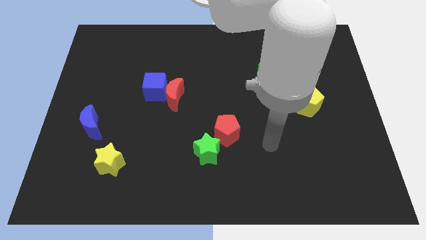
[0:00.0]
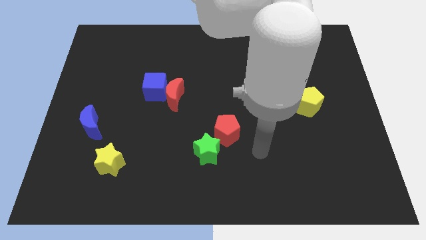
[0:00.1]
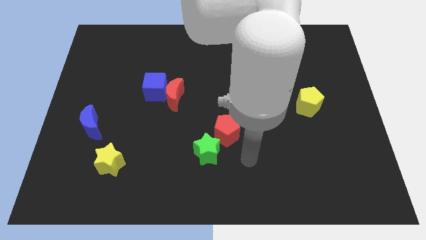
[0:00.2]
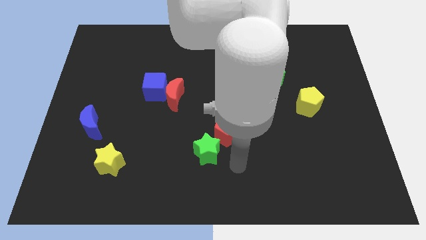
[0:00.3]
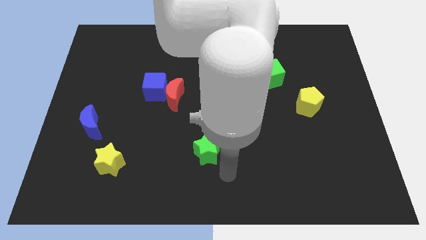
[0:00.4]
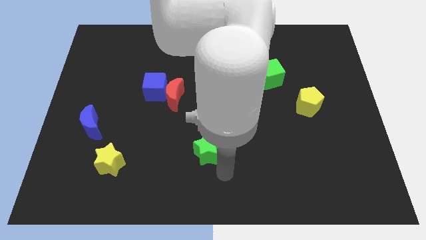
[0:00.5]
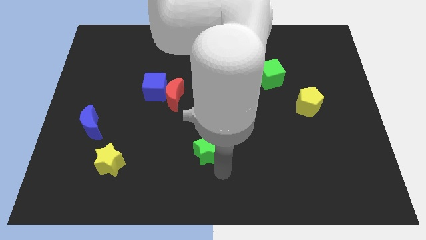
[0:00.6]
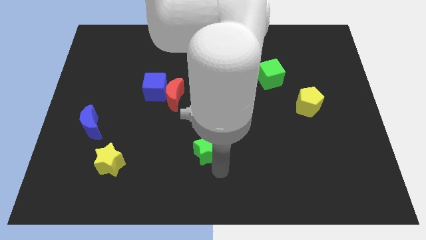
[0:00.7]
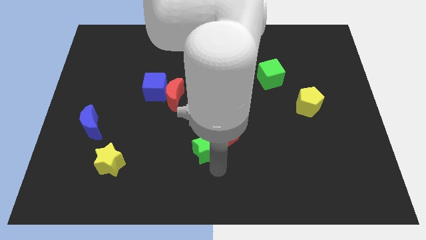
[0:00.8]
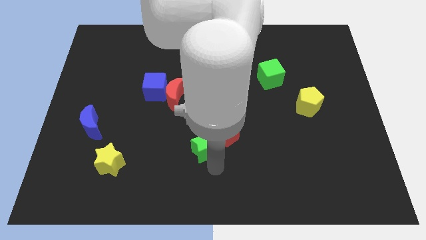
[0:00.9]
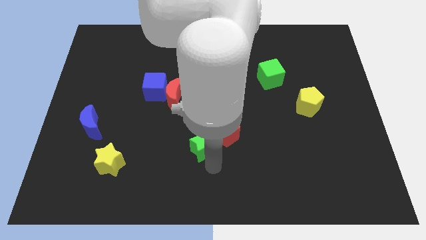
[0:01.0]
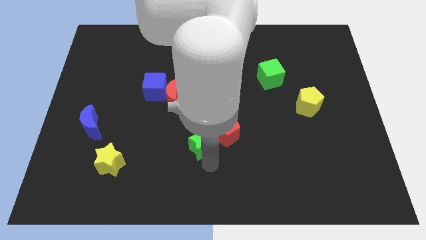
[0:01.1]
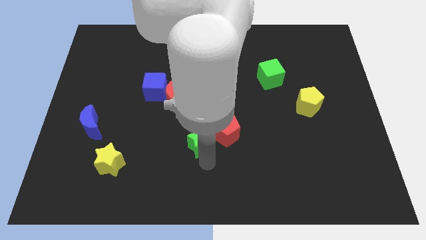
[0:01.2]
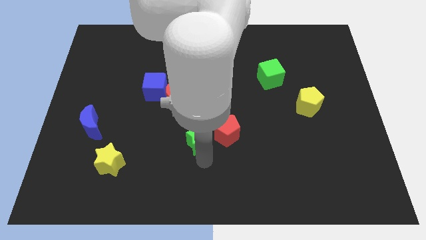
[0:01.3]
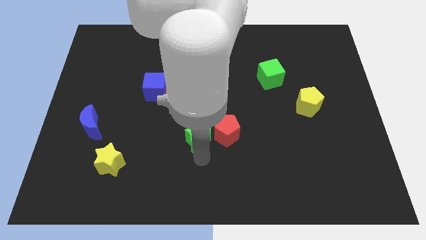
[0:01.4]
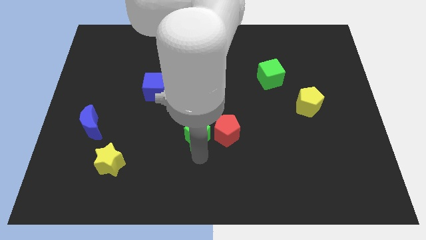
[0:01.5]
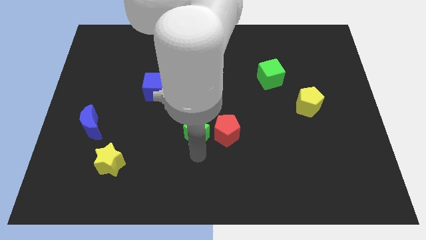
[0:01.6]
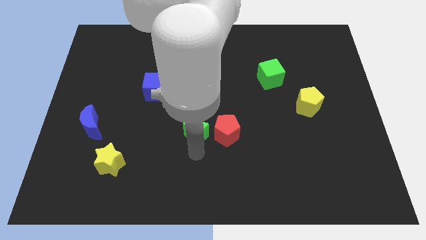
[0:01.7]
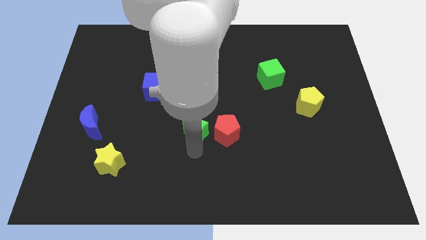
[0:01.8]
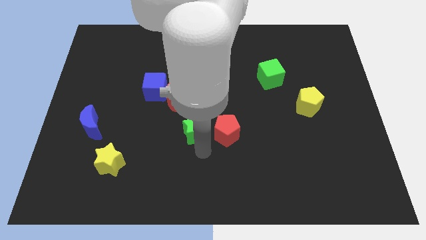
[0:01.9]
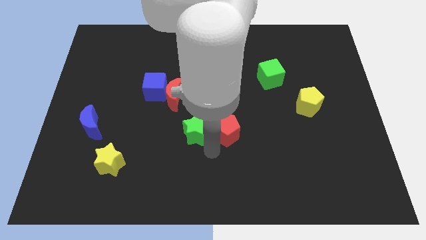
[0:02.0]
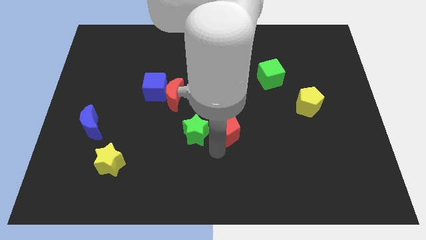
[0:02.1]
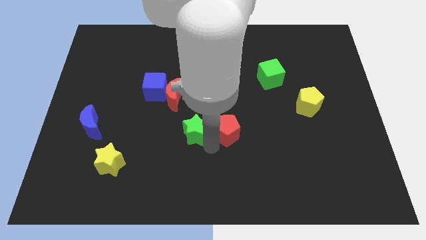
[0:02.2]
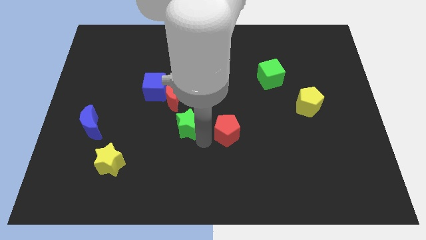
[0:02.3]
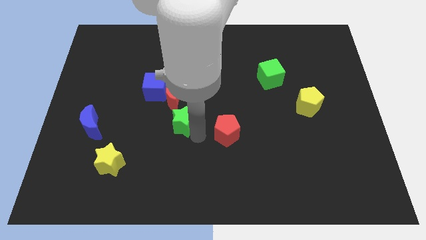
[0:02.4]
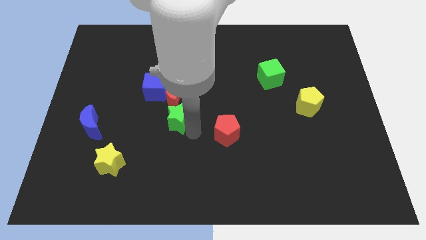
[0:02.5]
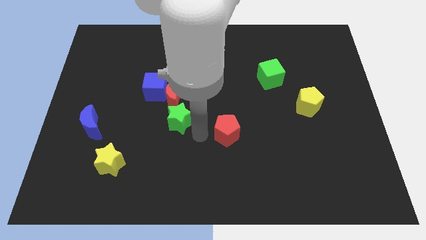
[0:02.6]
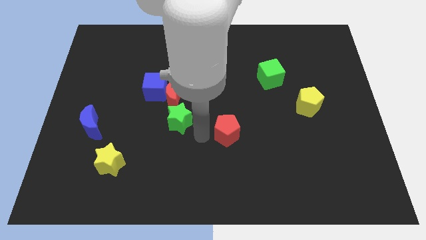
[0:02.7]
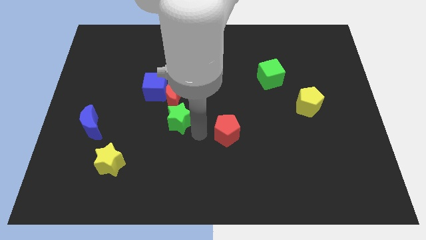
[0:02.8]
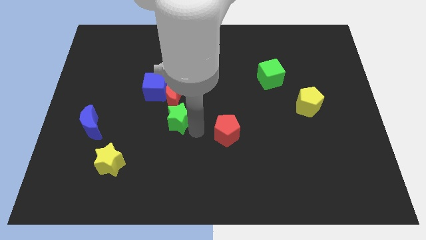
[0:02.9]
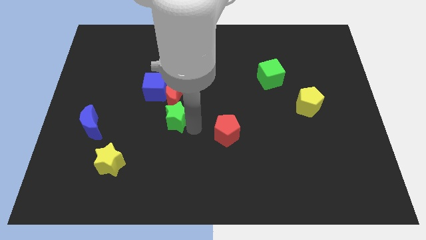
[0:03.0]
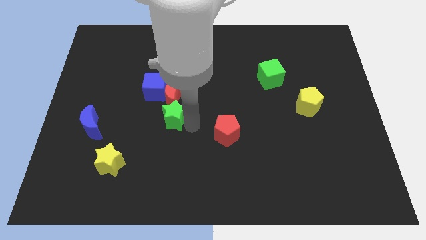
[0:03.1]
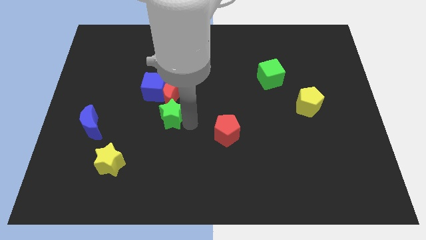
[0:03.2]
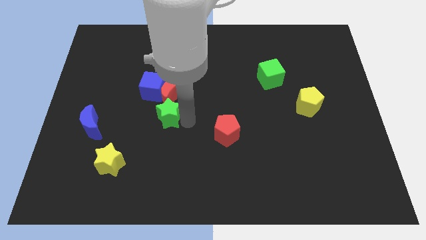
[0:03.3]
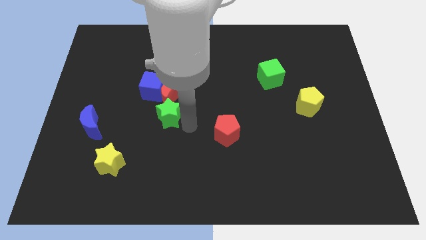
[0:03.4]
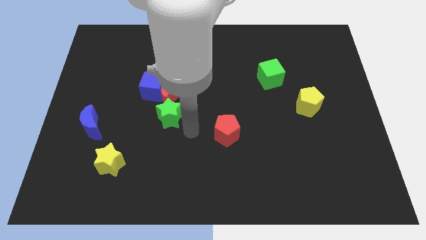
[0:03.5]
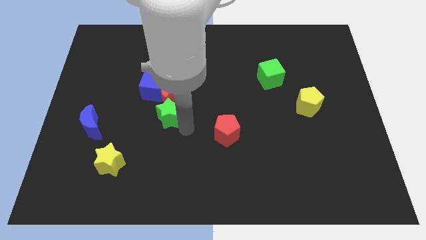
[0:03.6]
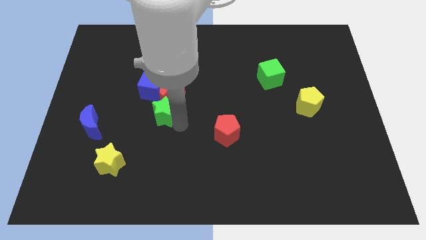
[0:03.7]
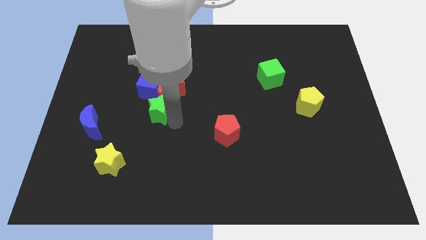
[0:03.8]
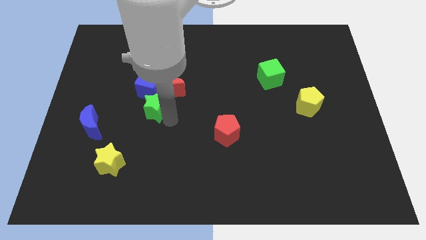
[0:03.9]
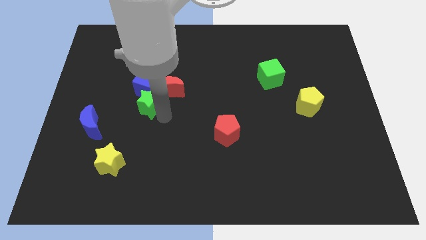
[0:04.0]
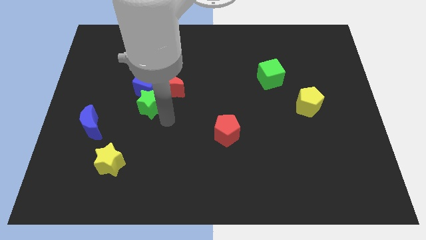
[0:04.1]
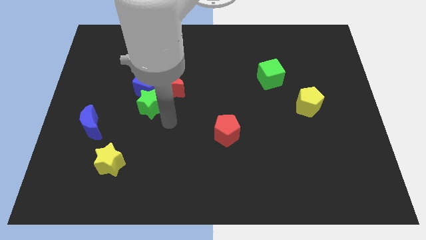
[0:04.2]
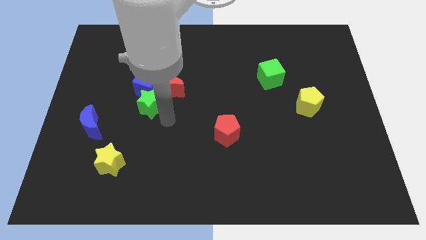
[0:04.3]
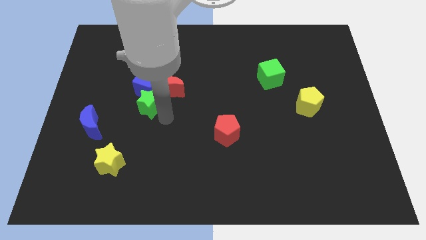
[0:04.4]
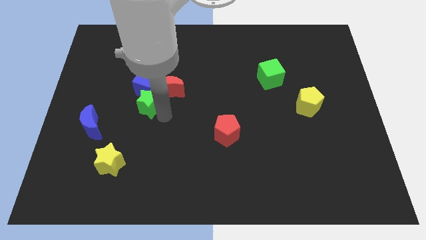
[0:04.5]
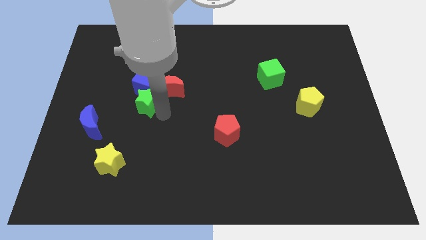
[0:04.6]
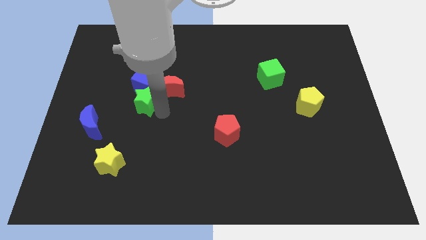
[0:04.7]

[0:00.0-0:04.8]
slide the green star diagonally upwards and to the left

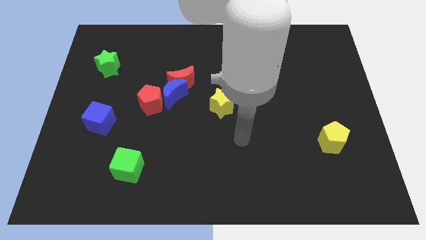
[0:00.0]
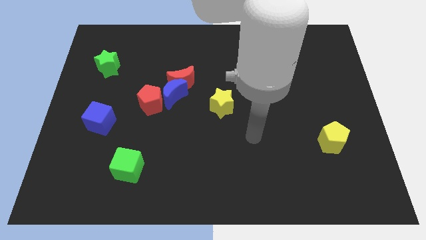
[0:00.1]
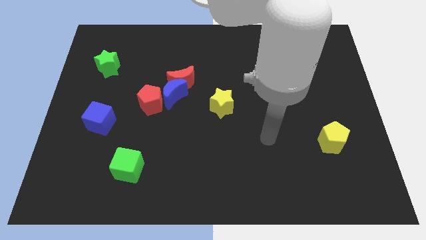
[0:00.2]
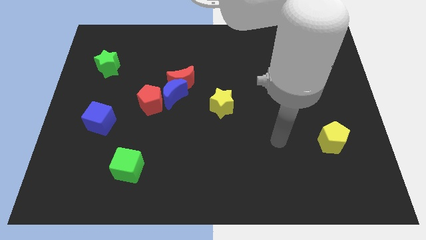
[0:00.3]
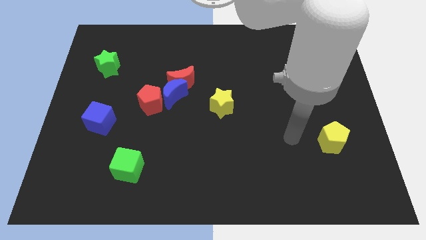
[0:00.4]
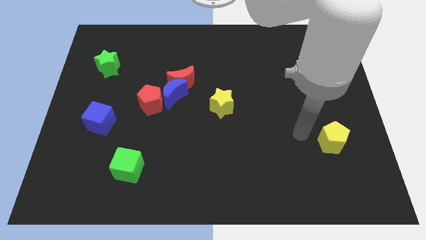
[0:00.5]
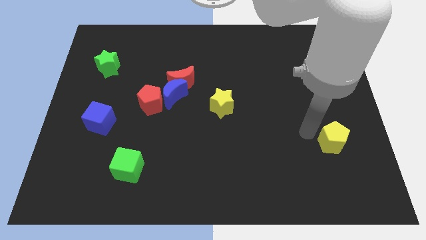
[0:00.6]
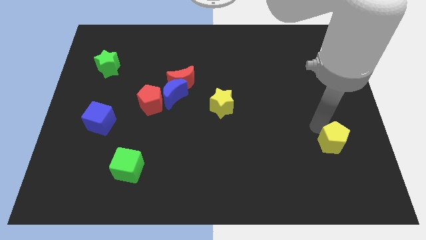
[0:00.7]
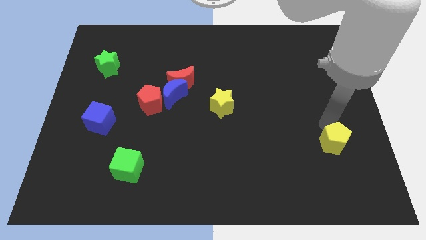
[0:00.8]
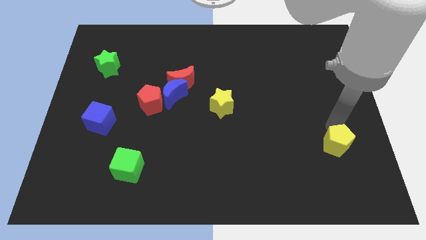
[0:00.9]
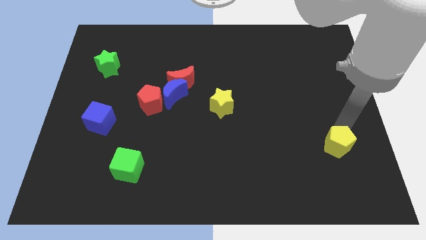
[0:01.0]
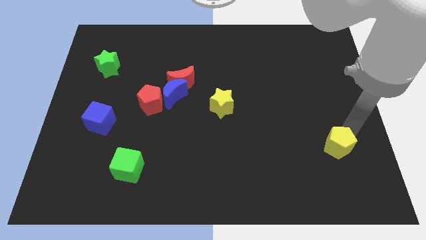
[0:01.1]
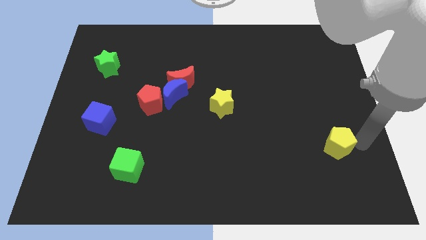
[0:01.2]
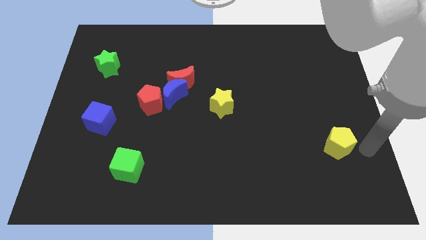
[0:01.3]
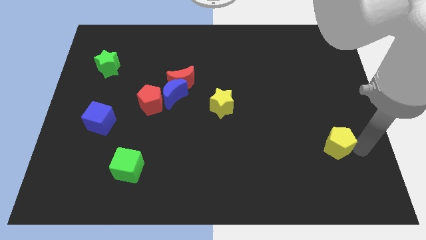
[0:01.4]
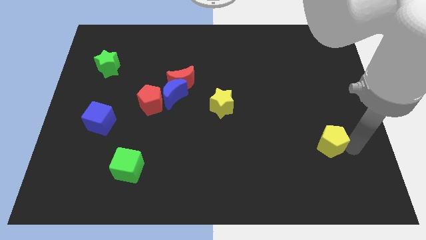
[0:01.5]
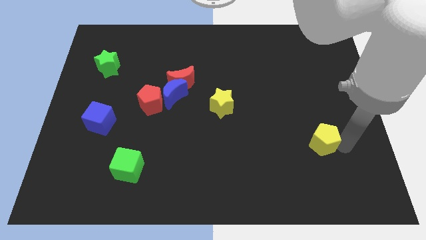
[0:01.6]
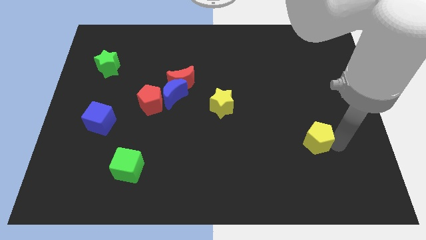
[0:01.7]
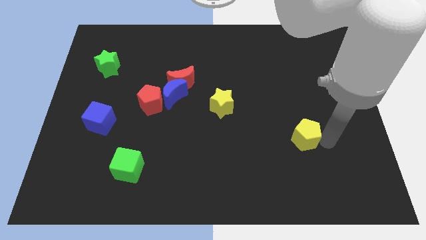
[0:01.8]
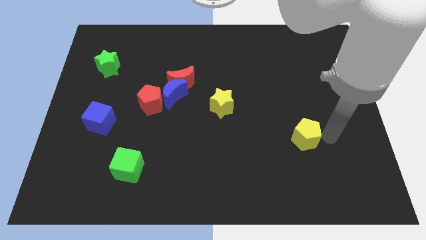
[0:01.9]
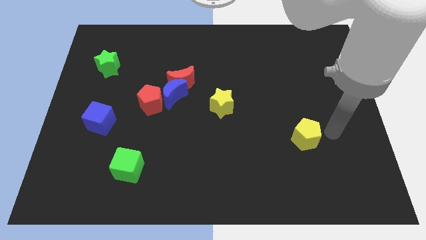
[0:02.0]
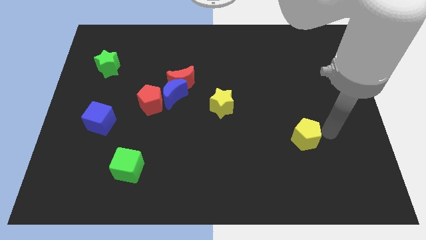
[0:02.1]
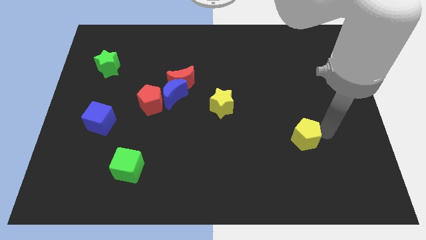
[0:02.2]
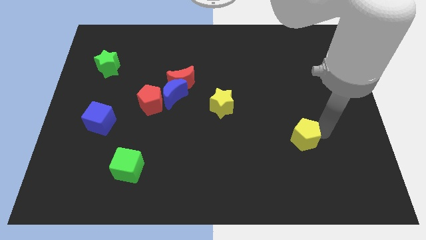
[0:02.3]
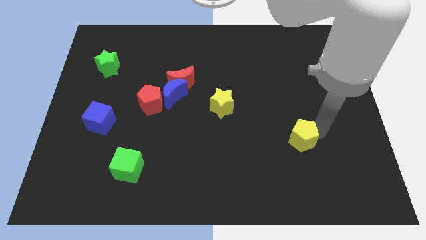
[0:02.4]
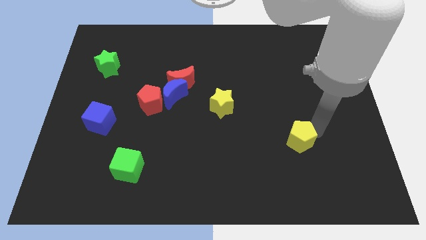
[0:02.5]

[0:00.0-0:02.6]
push the yellow pentagon left a little bit

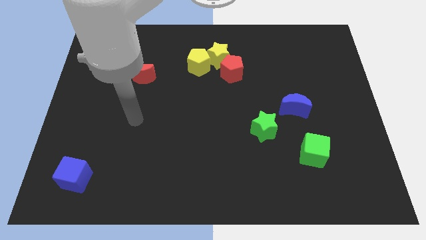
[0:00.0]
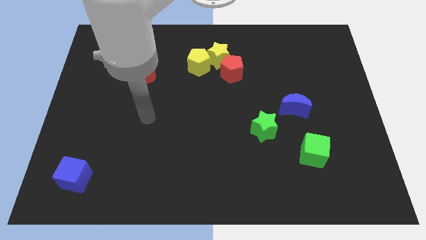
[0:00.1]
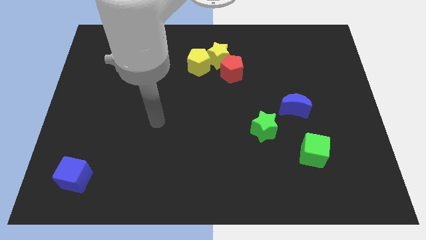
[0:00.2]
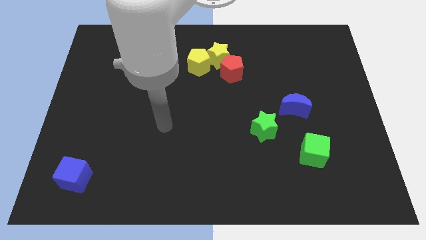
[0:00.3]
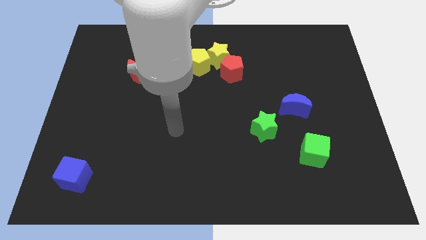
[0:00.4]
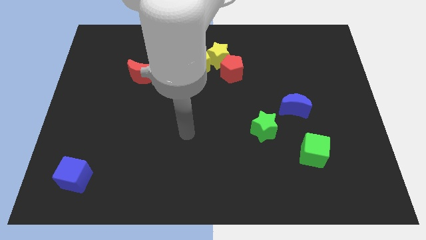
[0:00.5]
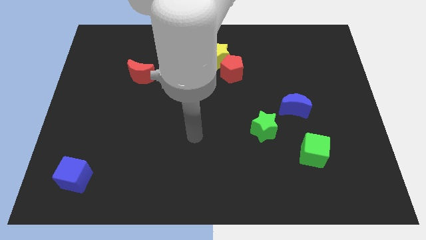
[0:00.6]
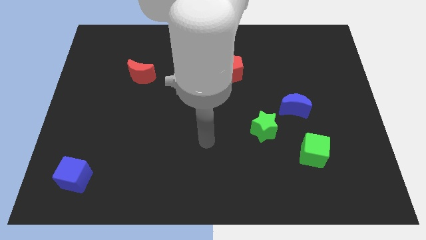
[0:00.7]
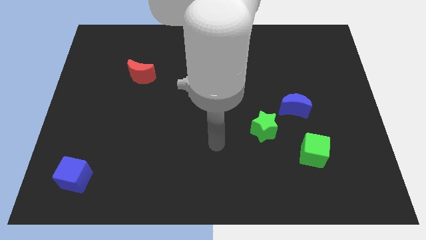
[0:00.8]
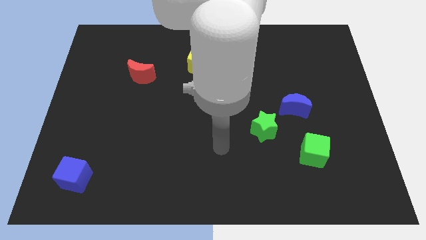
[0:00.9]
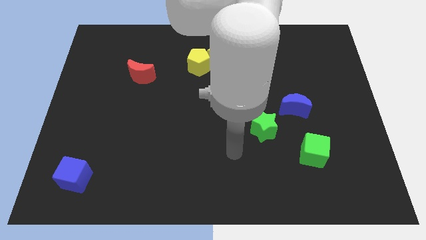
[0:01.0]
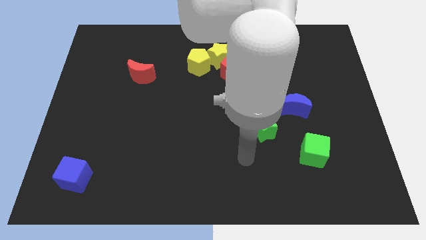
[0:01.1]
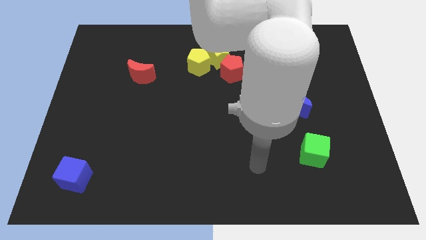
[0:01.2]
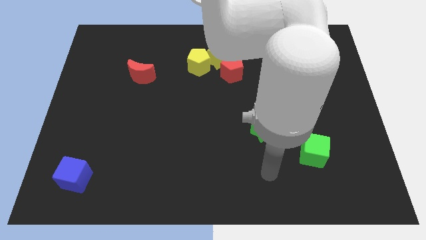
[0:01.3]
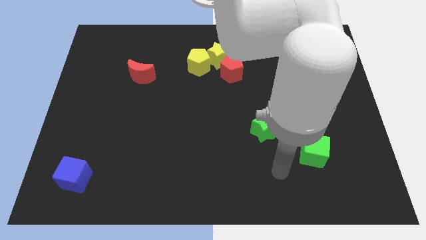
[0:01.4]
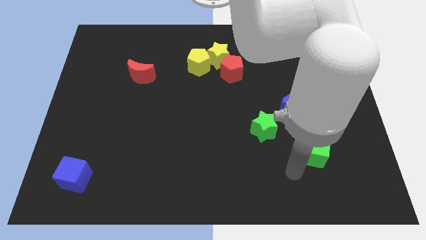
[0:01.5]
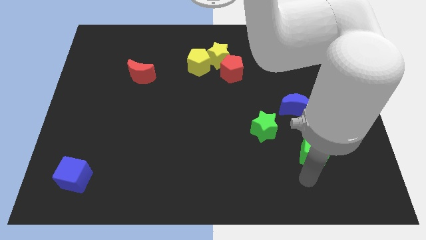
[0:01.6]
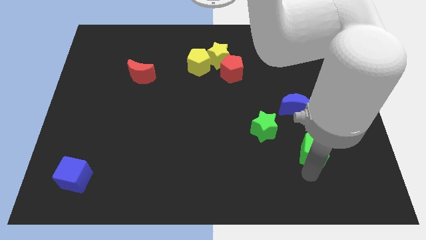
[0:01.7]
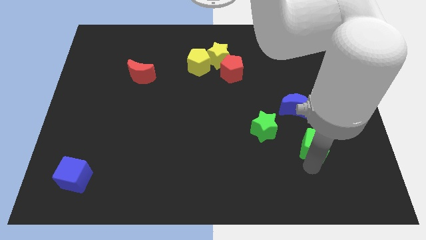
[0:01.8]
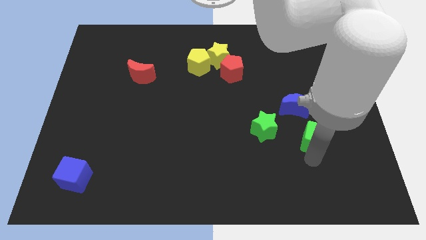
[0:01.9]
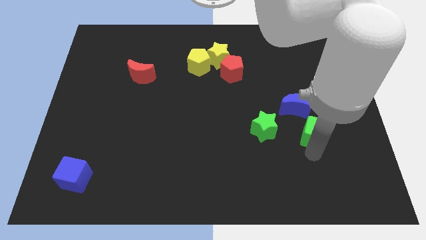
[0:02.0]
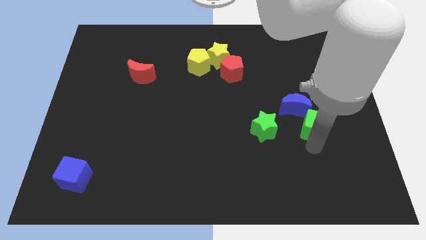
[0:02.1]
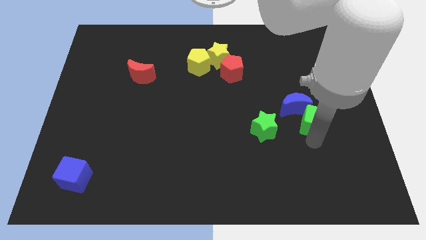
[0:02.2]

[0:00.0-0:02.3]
push the green cube upwards slightly
